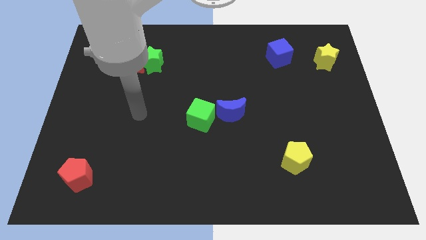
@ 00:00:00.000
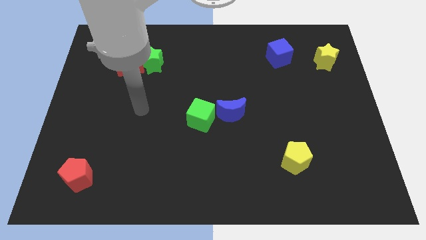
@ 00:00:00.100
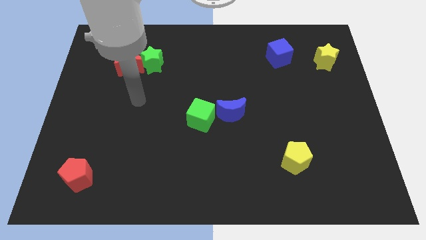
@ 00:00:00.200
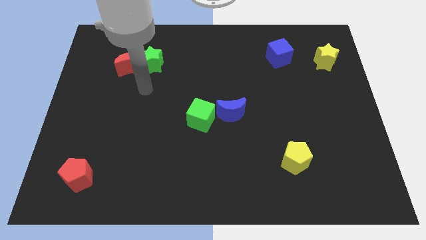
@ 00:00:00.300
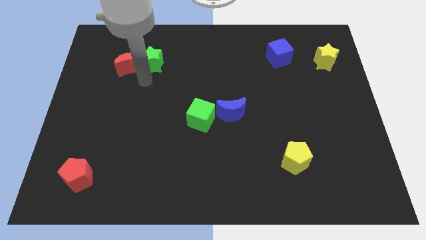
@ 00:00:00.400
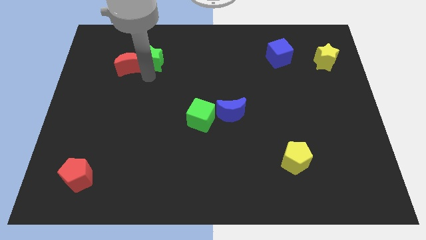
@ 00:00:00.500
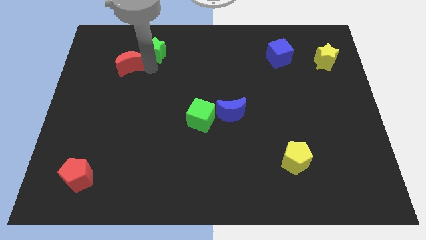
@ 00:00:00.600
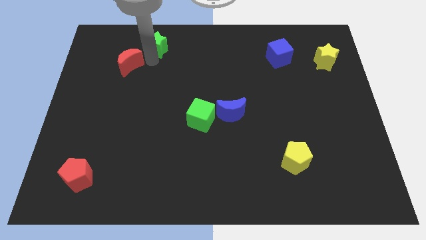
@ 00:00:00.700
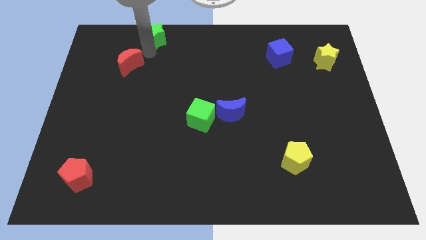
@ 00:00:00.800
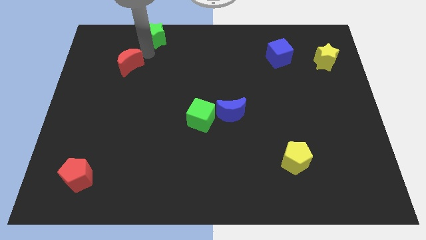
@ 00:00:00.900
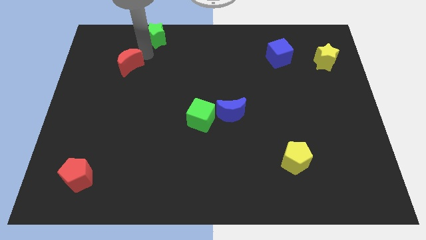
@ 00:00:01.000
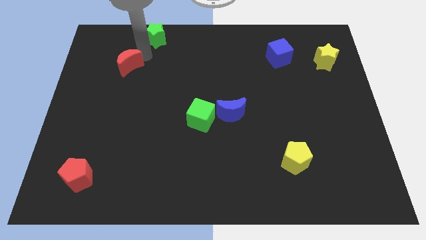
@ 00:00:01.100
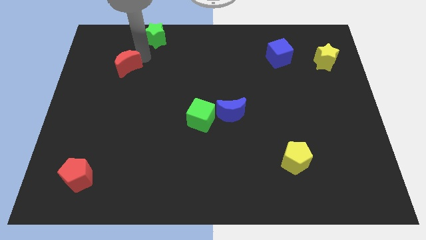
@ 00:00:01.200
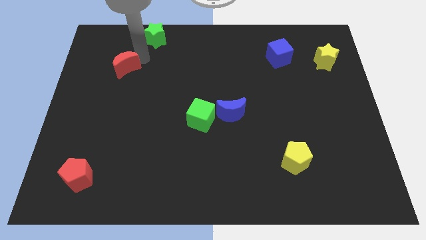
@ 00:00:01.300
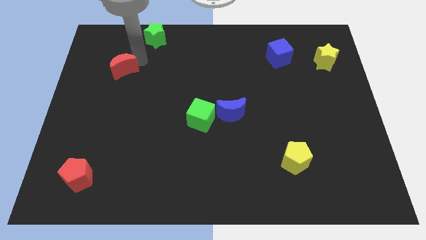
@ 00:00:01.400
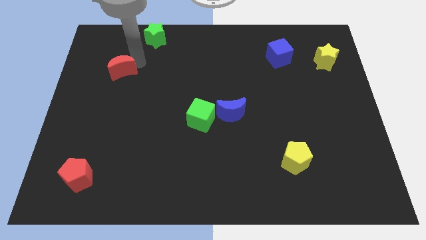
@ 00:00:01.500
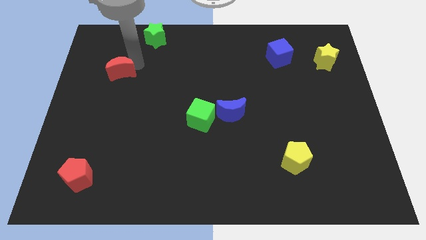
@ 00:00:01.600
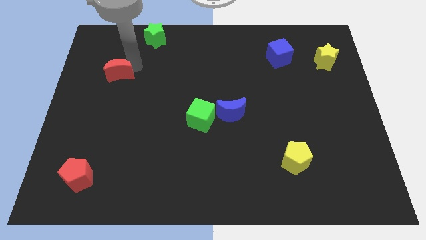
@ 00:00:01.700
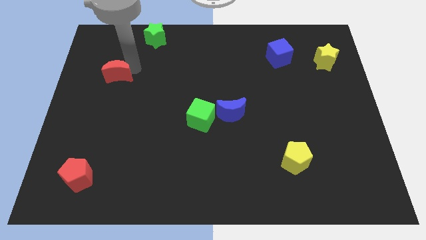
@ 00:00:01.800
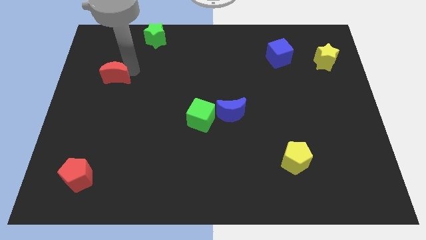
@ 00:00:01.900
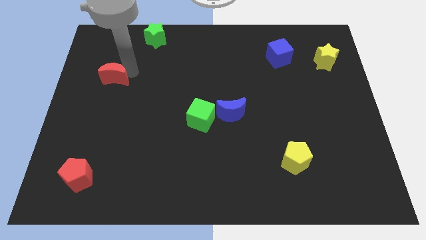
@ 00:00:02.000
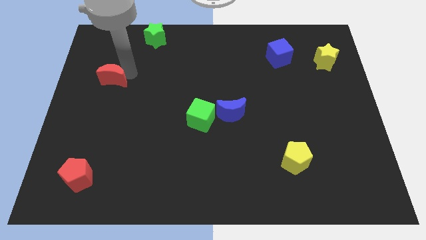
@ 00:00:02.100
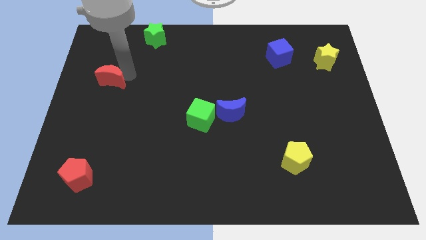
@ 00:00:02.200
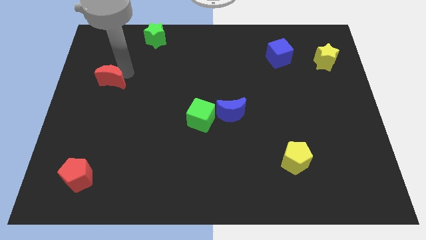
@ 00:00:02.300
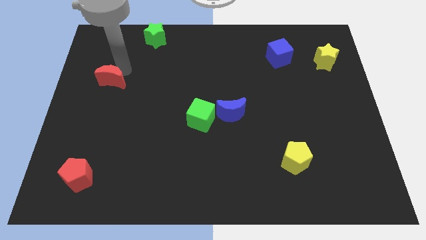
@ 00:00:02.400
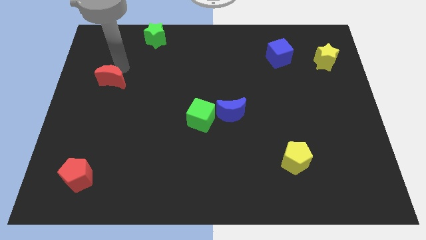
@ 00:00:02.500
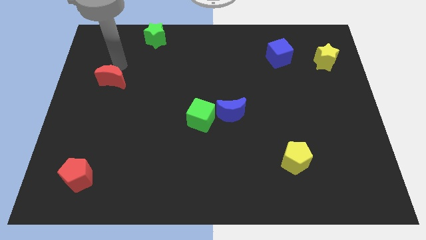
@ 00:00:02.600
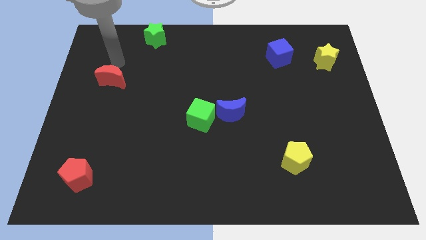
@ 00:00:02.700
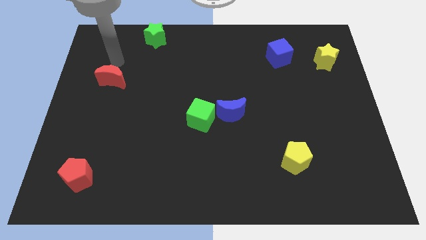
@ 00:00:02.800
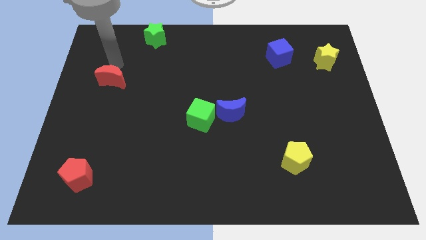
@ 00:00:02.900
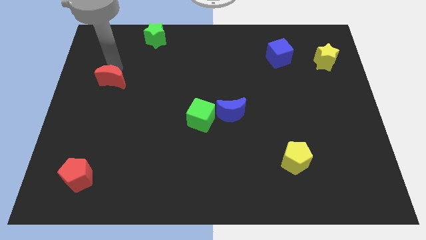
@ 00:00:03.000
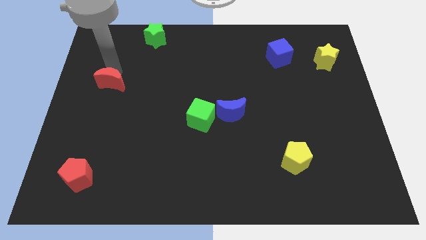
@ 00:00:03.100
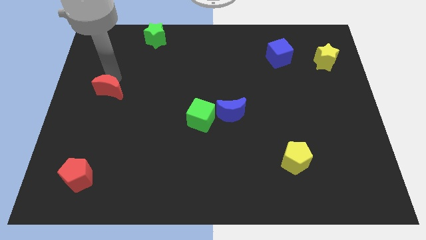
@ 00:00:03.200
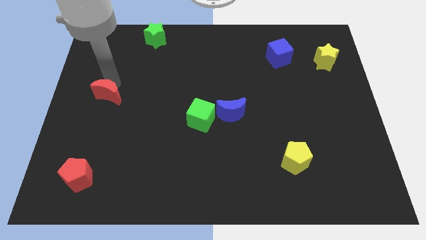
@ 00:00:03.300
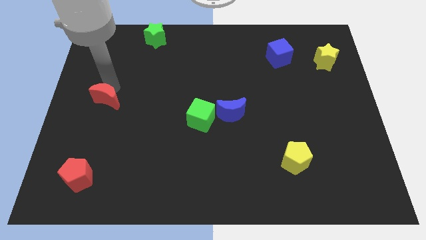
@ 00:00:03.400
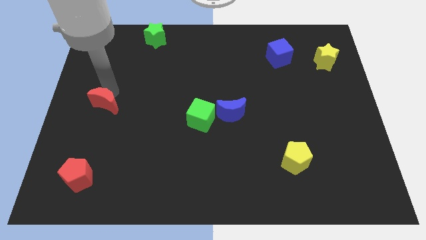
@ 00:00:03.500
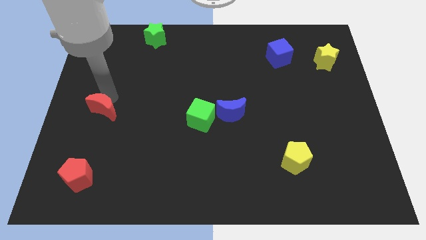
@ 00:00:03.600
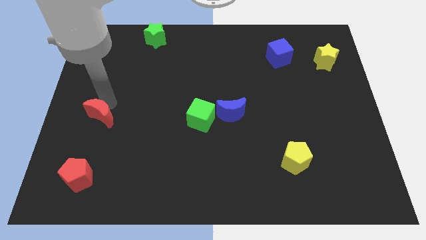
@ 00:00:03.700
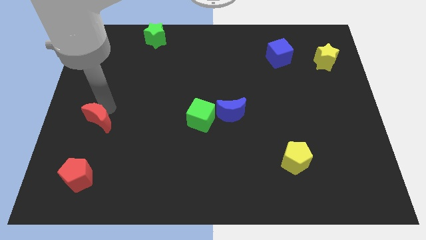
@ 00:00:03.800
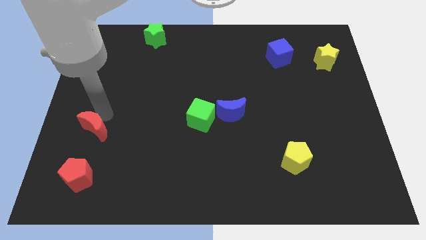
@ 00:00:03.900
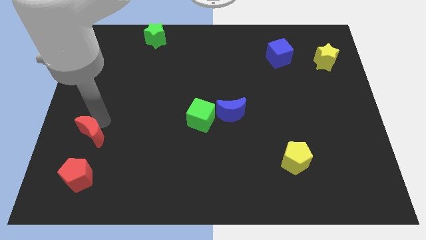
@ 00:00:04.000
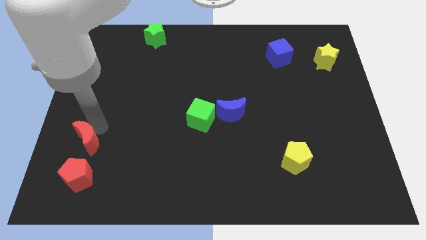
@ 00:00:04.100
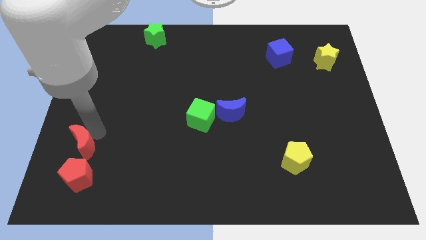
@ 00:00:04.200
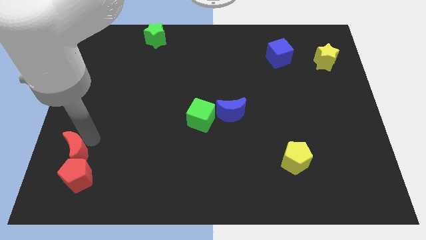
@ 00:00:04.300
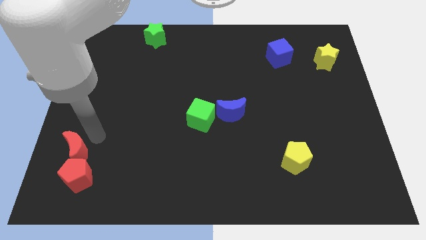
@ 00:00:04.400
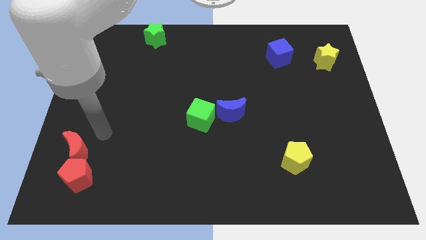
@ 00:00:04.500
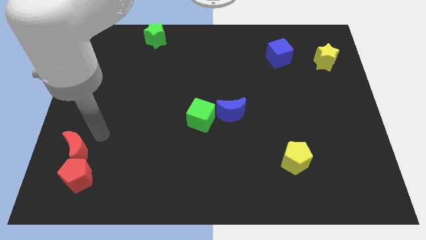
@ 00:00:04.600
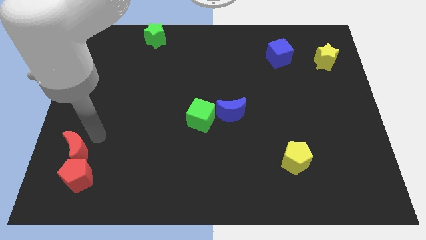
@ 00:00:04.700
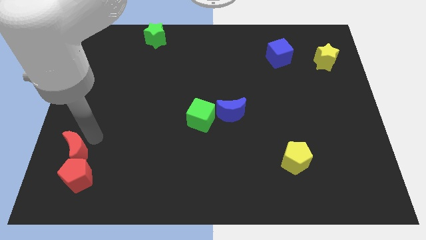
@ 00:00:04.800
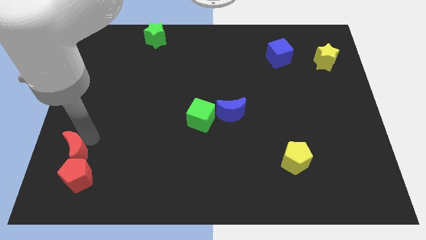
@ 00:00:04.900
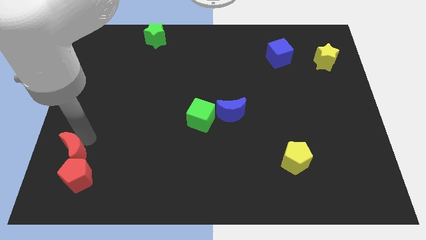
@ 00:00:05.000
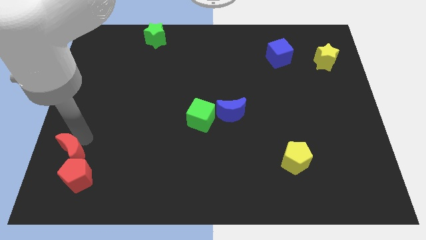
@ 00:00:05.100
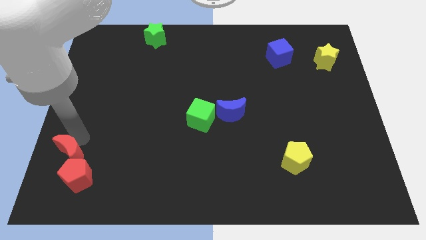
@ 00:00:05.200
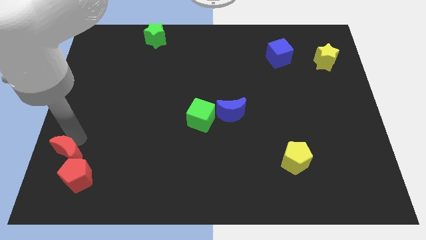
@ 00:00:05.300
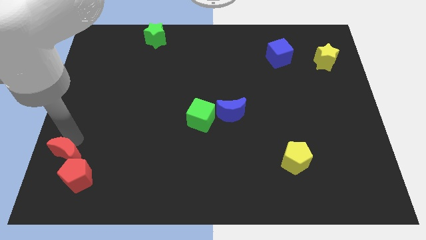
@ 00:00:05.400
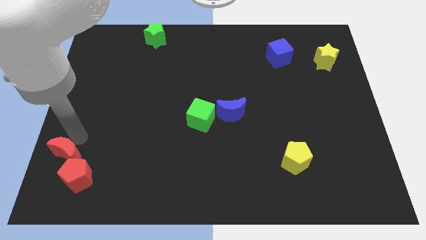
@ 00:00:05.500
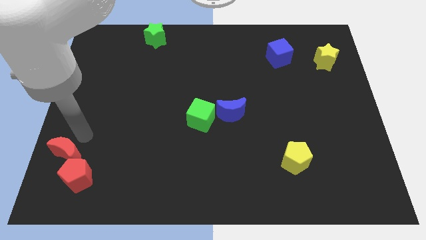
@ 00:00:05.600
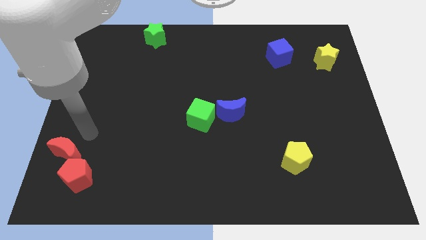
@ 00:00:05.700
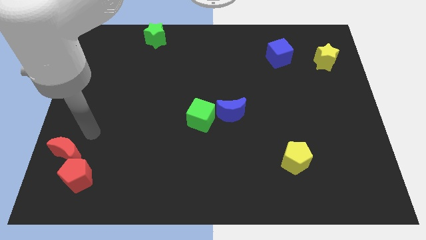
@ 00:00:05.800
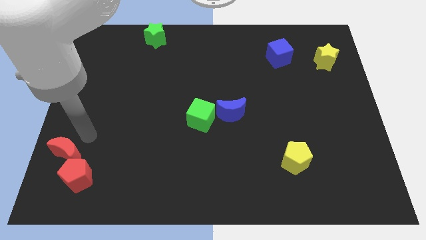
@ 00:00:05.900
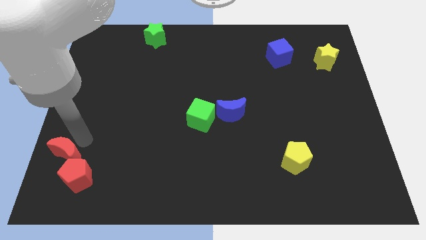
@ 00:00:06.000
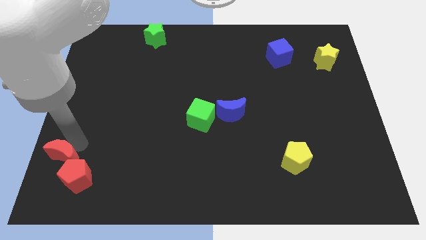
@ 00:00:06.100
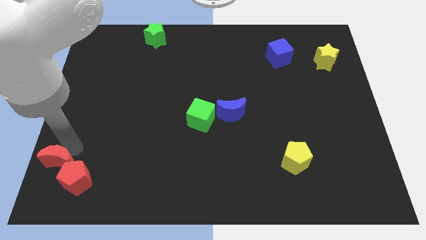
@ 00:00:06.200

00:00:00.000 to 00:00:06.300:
push the red moon to the bottom left of the board
